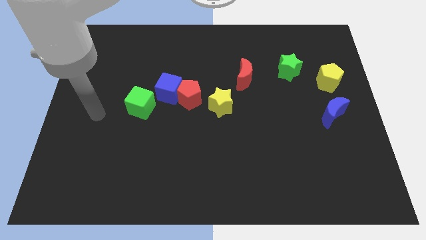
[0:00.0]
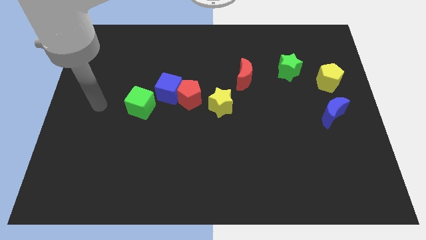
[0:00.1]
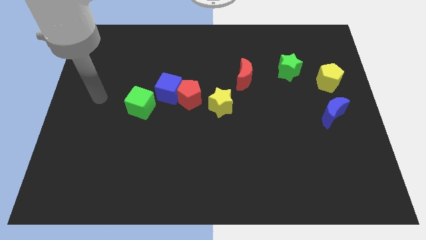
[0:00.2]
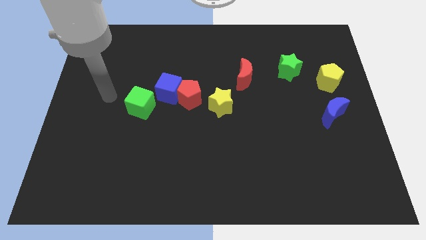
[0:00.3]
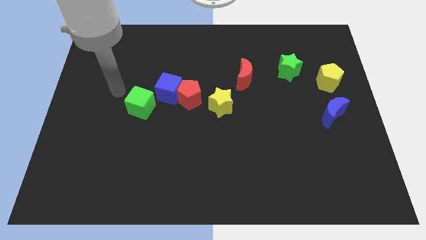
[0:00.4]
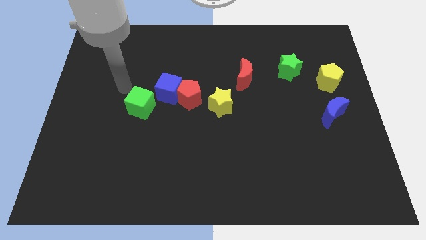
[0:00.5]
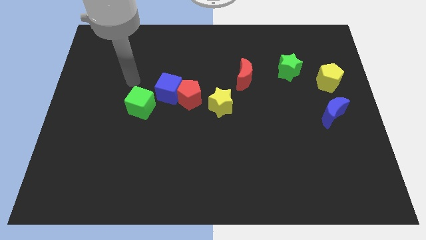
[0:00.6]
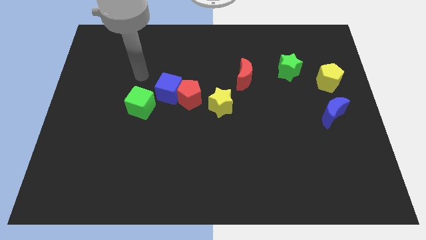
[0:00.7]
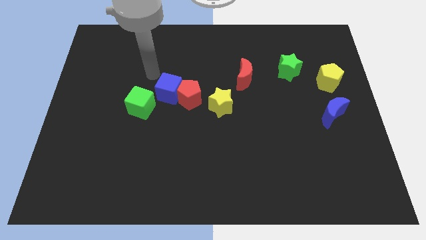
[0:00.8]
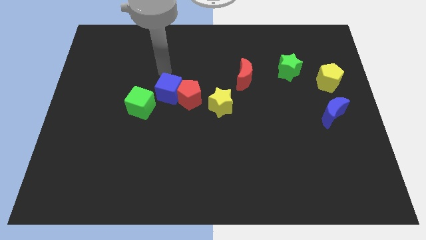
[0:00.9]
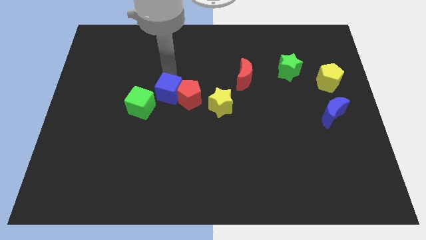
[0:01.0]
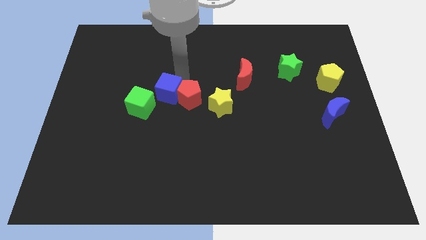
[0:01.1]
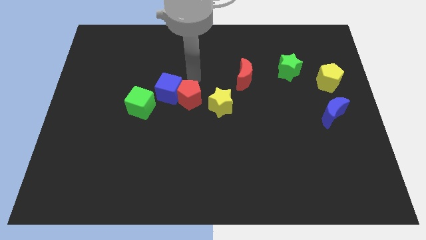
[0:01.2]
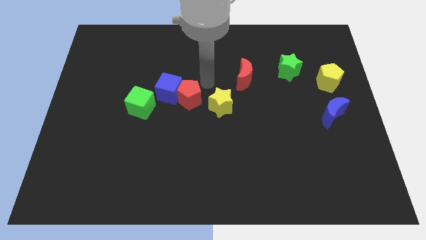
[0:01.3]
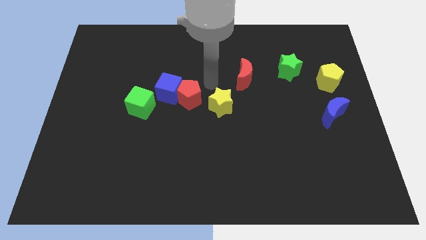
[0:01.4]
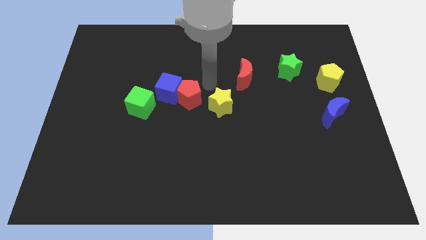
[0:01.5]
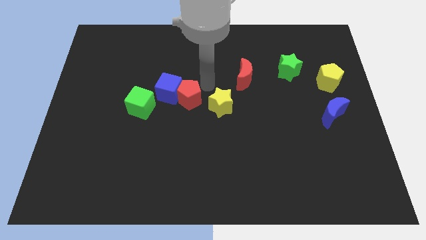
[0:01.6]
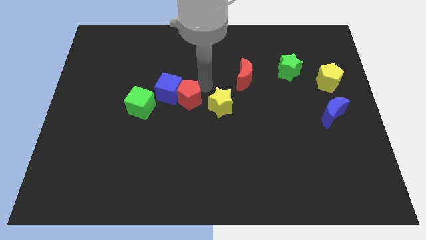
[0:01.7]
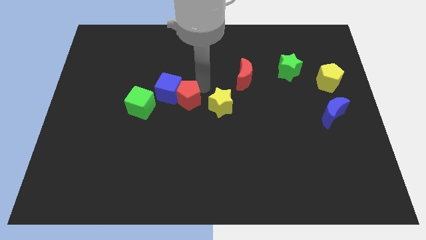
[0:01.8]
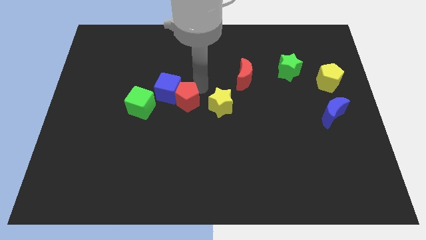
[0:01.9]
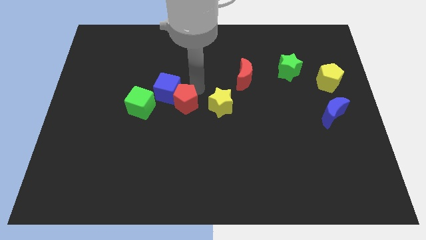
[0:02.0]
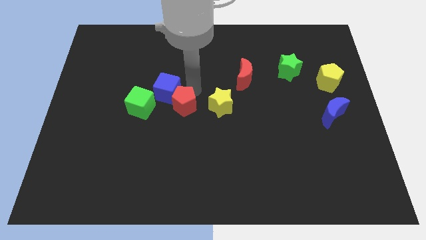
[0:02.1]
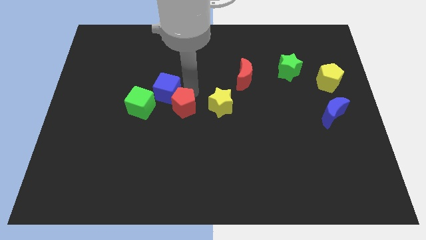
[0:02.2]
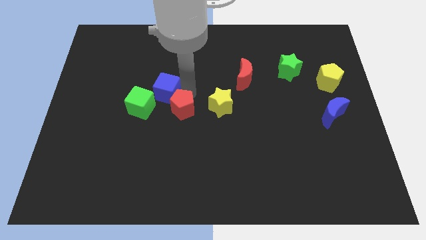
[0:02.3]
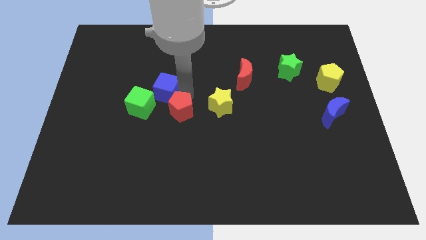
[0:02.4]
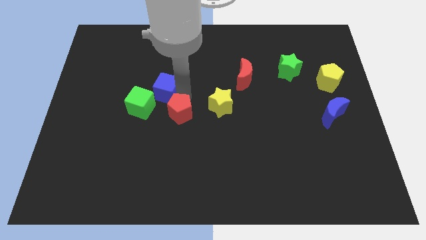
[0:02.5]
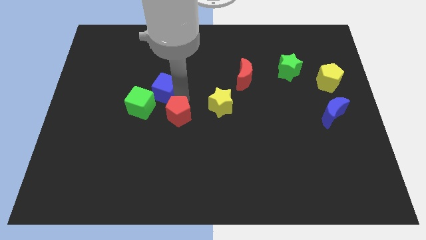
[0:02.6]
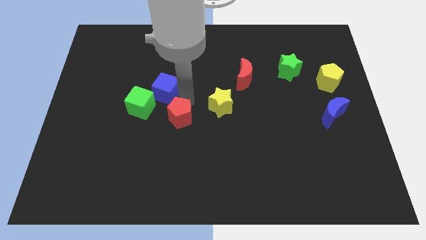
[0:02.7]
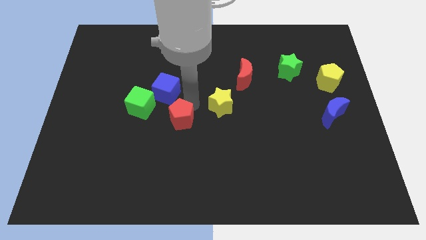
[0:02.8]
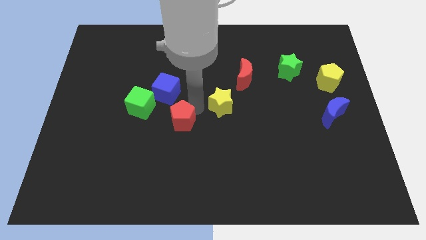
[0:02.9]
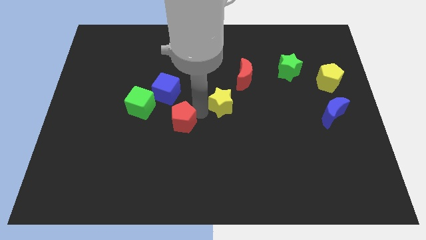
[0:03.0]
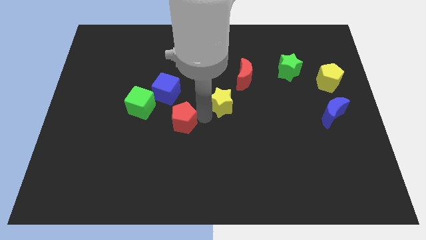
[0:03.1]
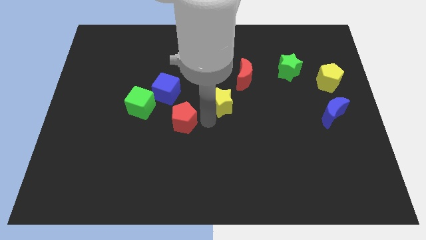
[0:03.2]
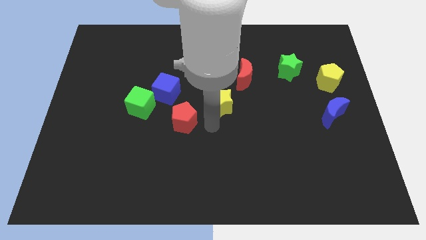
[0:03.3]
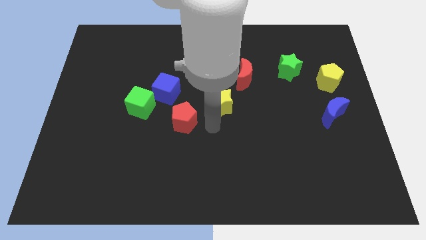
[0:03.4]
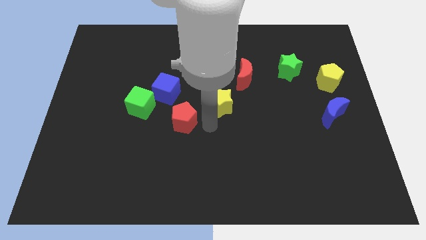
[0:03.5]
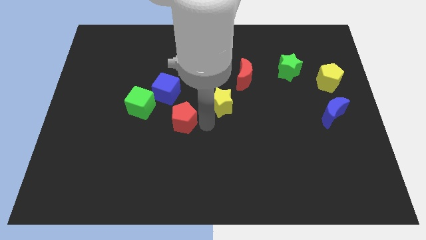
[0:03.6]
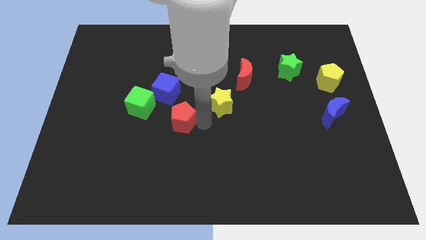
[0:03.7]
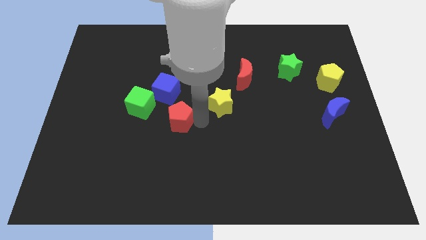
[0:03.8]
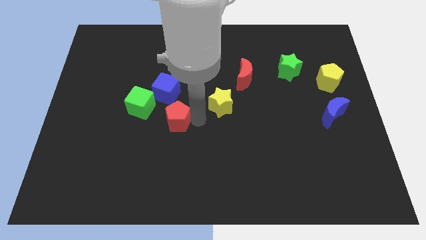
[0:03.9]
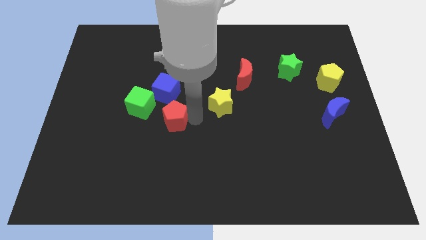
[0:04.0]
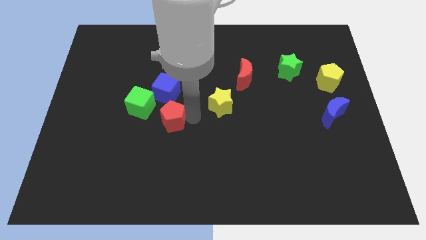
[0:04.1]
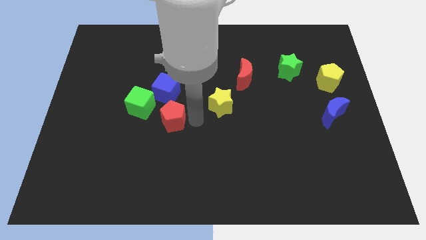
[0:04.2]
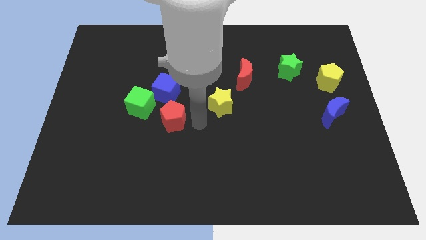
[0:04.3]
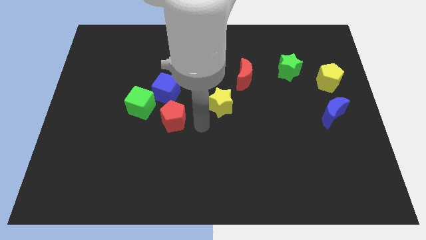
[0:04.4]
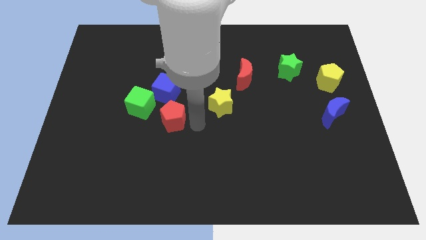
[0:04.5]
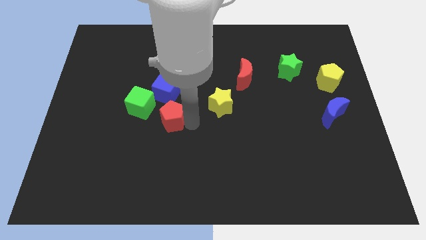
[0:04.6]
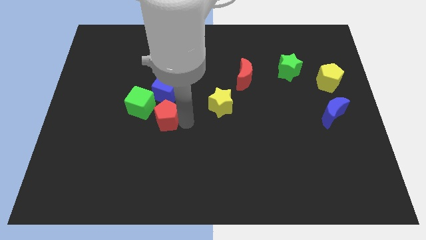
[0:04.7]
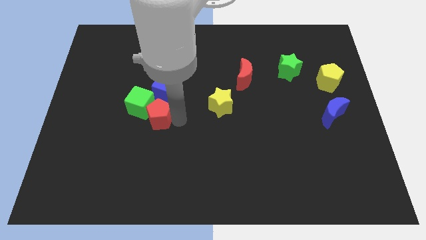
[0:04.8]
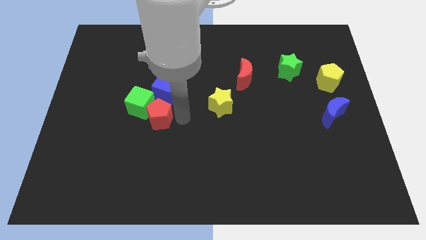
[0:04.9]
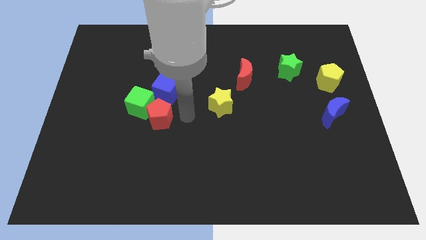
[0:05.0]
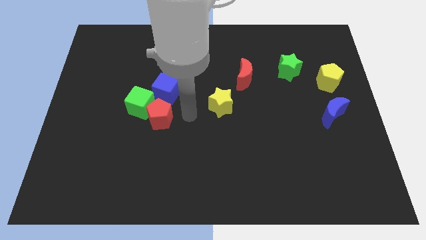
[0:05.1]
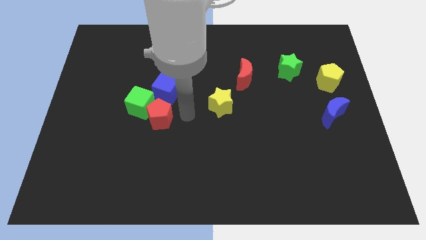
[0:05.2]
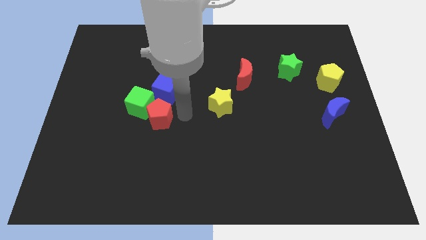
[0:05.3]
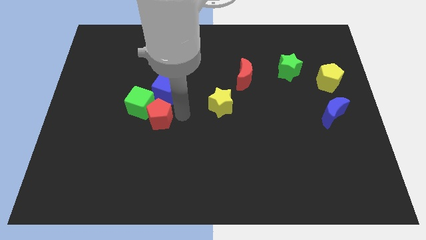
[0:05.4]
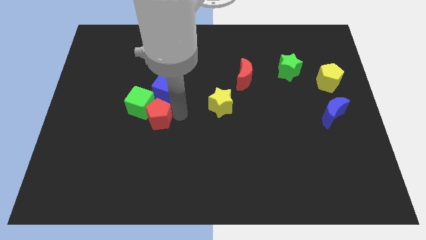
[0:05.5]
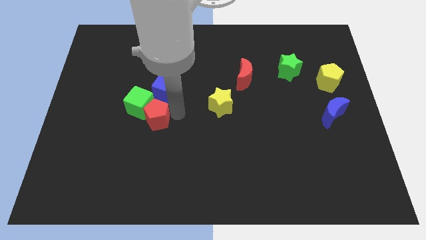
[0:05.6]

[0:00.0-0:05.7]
move the red pentagon away from the blue cube and yellow star

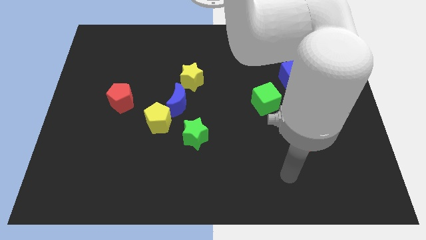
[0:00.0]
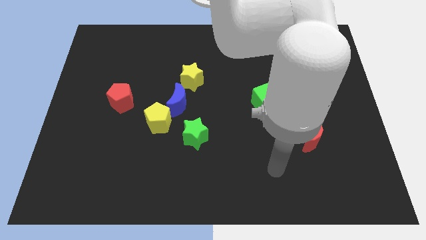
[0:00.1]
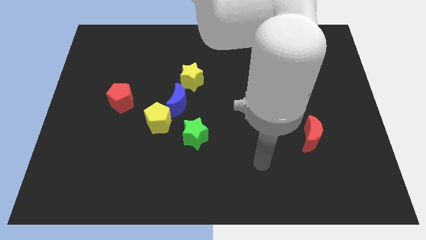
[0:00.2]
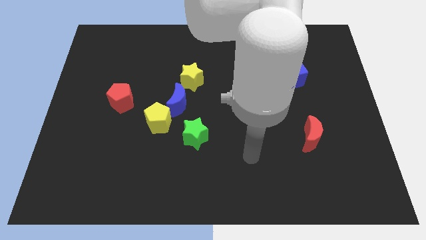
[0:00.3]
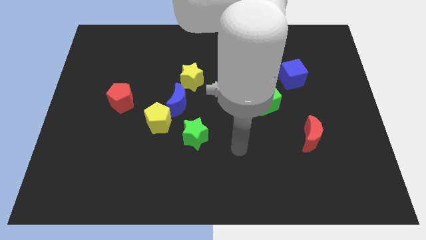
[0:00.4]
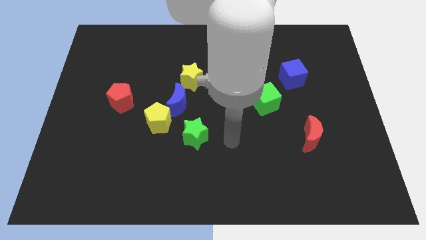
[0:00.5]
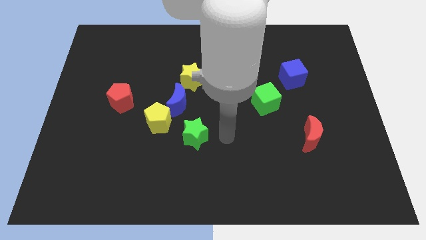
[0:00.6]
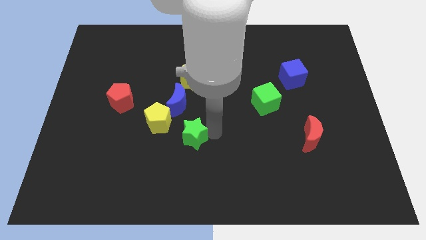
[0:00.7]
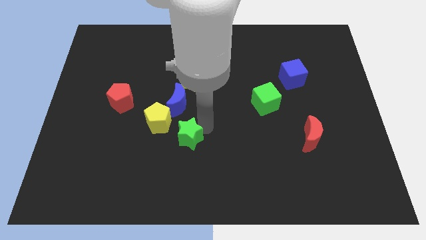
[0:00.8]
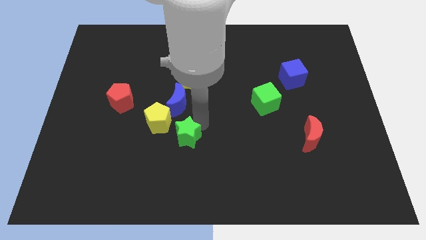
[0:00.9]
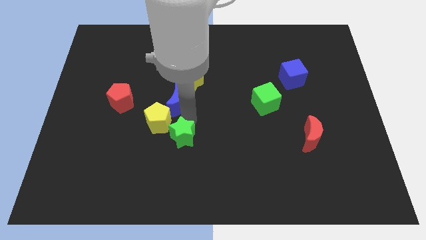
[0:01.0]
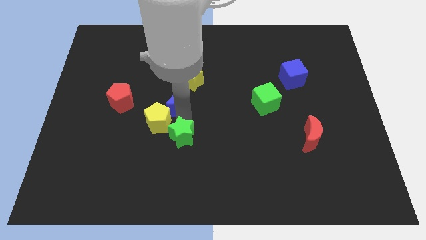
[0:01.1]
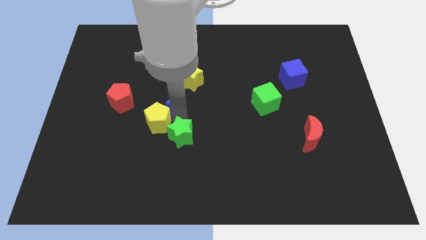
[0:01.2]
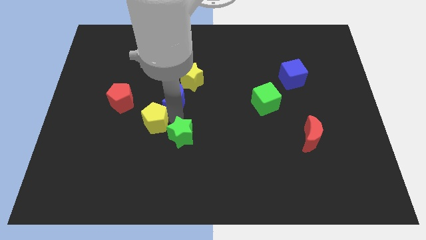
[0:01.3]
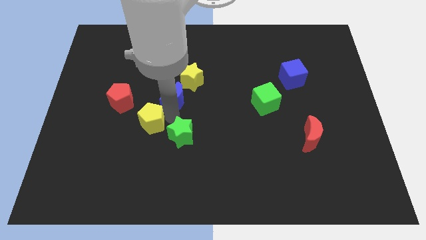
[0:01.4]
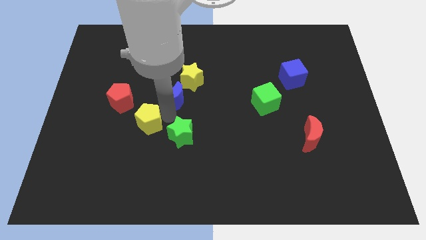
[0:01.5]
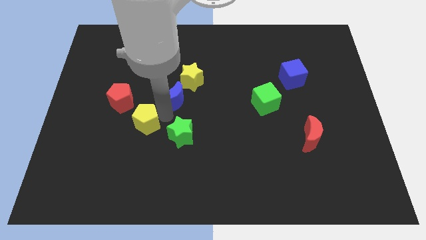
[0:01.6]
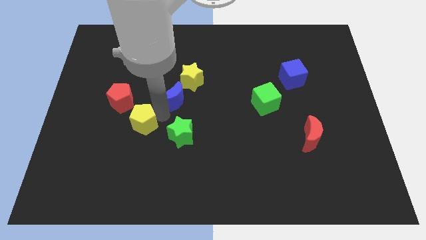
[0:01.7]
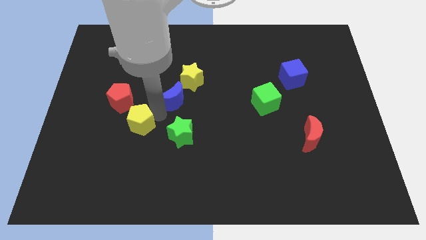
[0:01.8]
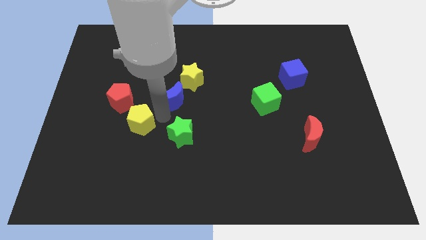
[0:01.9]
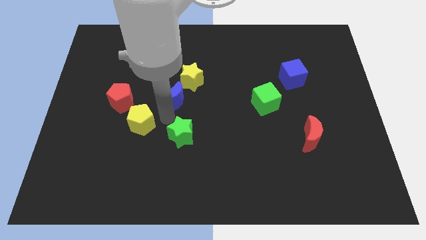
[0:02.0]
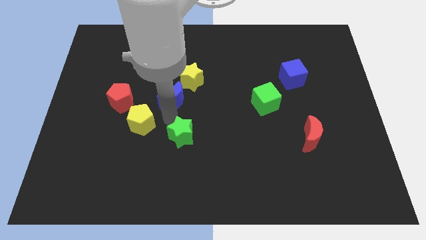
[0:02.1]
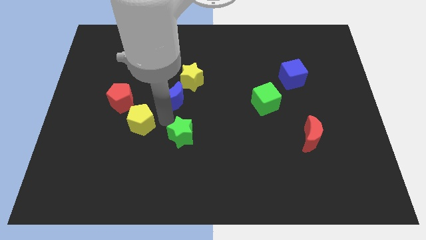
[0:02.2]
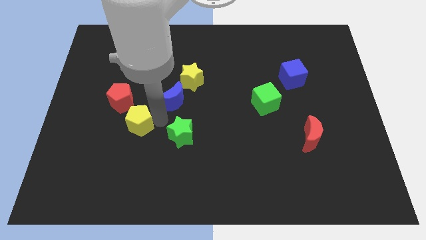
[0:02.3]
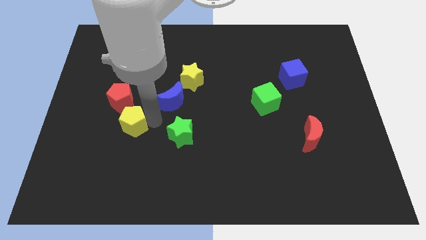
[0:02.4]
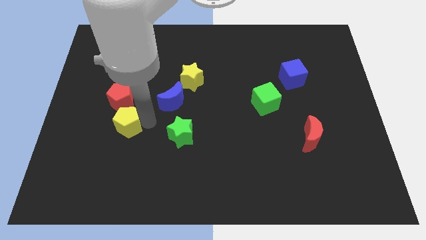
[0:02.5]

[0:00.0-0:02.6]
move the yellow pentagon away from the blue moon and green star

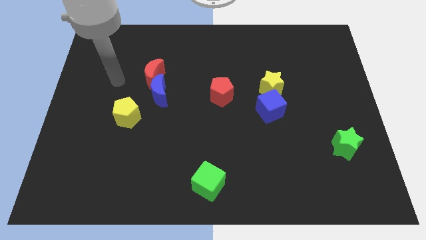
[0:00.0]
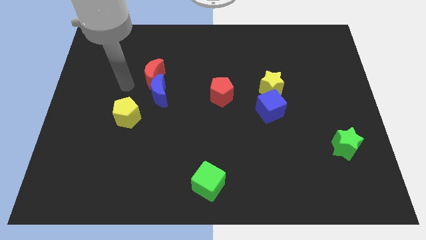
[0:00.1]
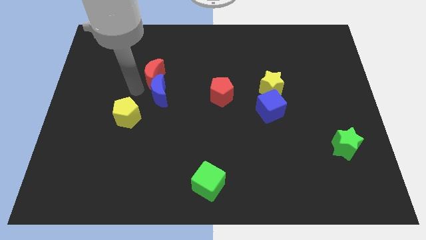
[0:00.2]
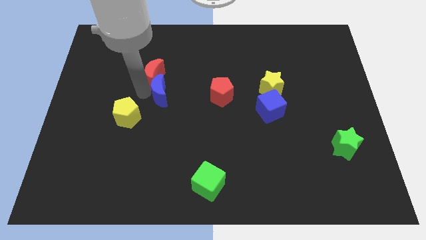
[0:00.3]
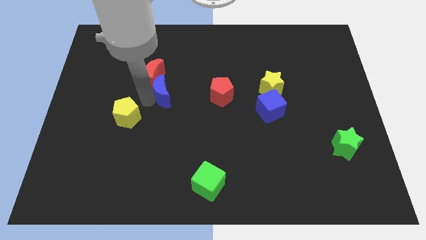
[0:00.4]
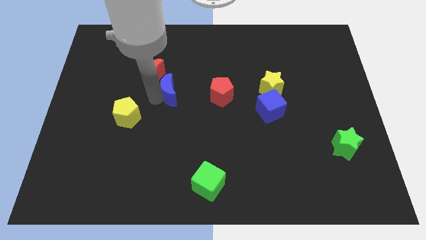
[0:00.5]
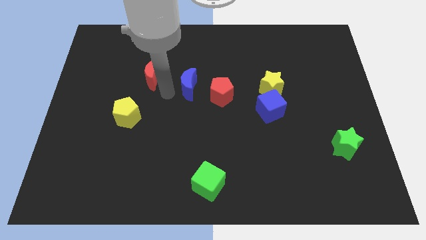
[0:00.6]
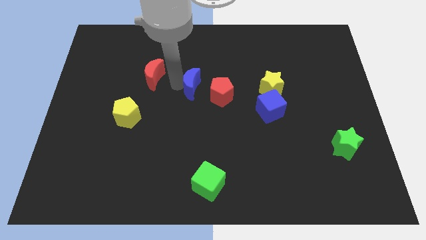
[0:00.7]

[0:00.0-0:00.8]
pull the red moon apart from the blue moon

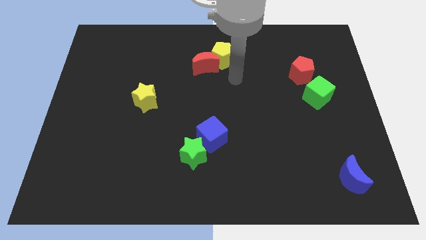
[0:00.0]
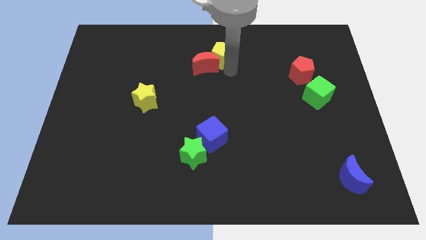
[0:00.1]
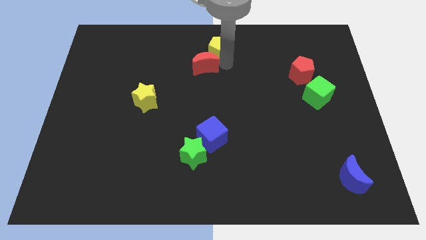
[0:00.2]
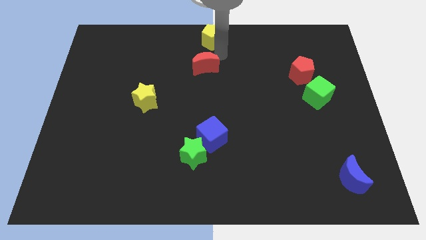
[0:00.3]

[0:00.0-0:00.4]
pull the red moon apart from the yellow pentagon
